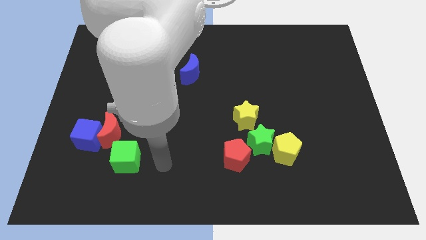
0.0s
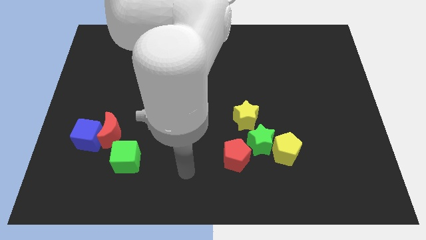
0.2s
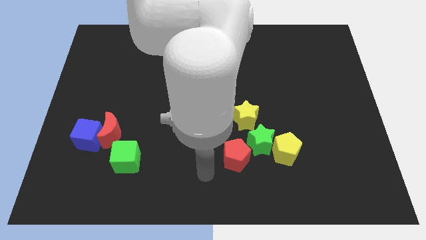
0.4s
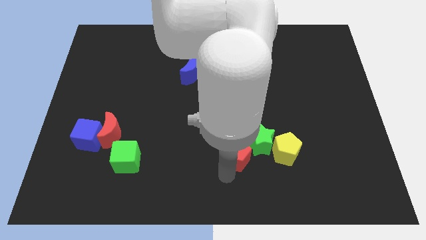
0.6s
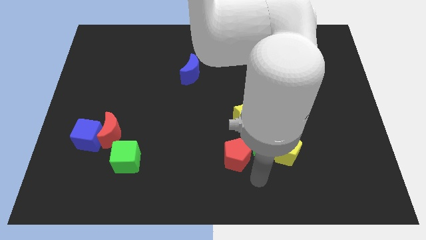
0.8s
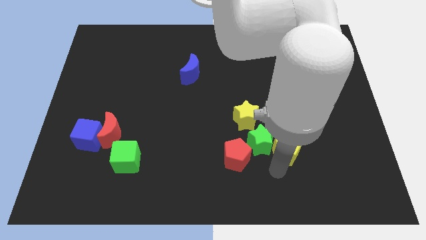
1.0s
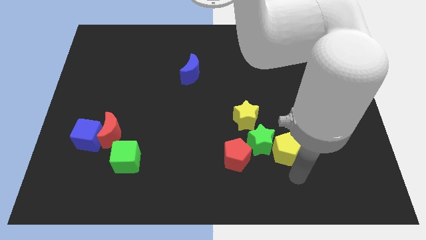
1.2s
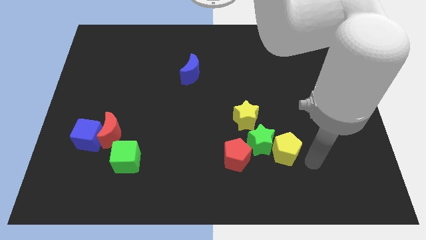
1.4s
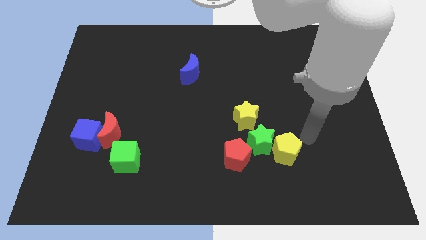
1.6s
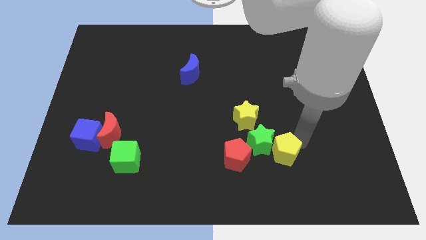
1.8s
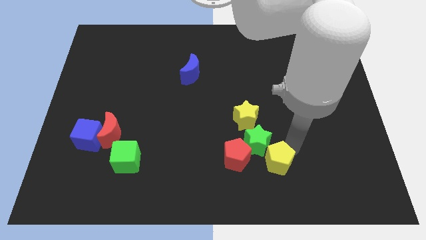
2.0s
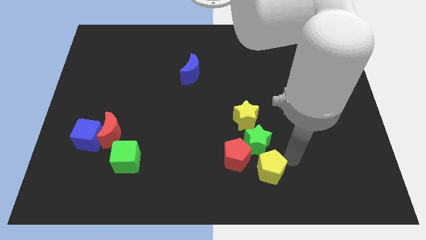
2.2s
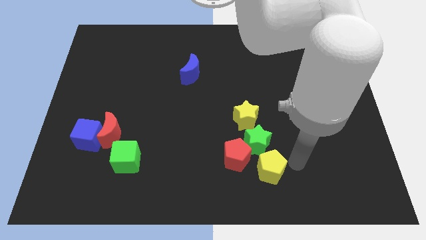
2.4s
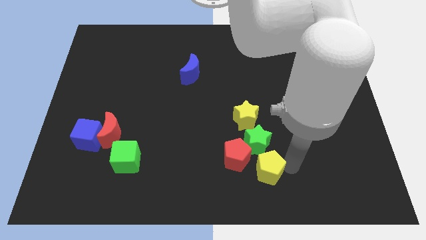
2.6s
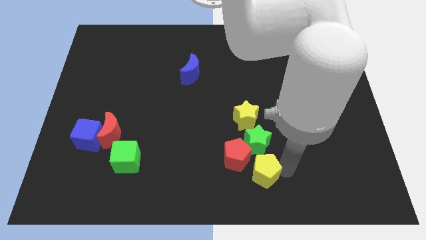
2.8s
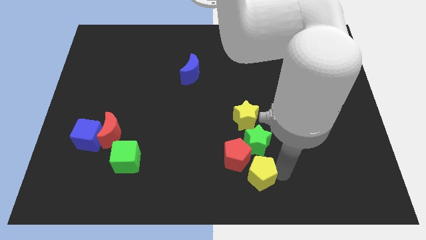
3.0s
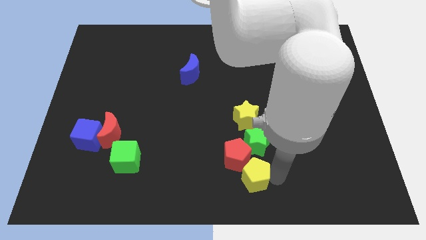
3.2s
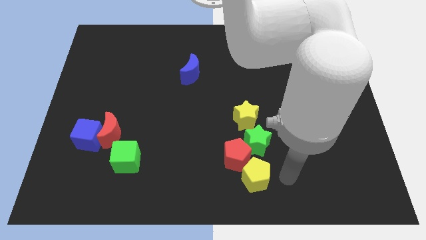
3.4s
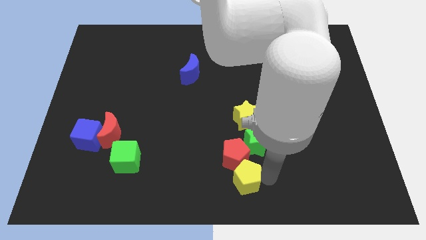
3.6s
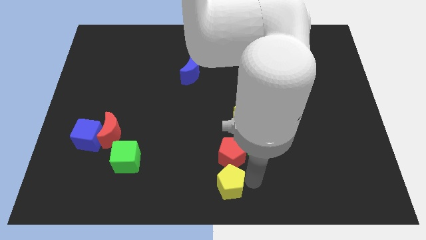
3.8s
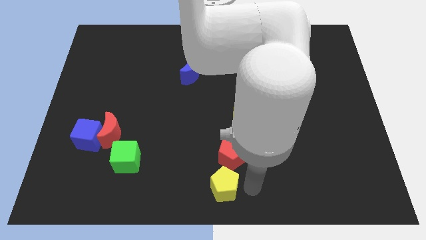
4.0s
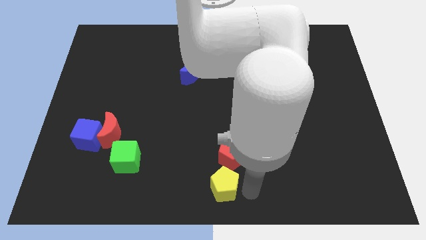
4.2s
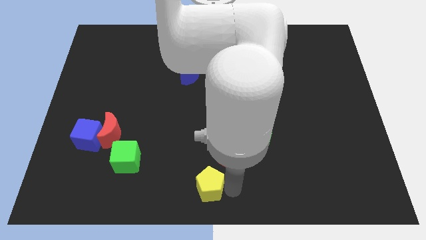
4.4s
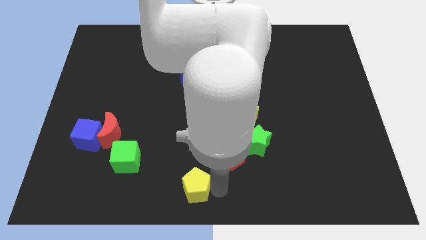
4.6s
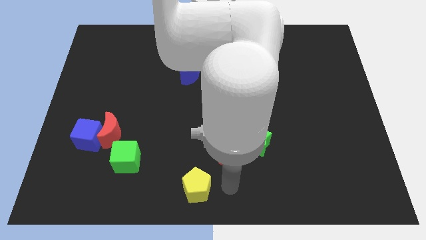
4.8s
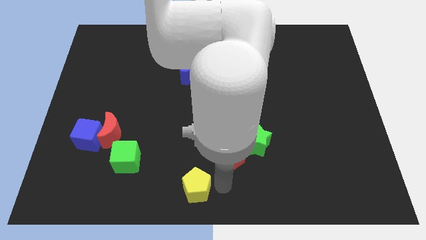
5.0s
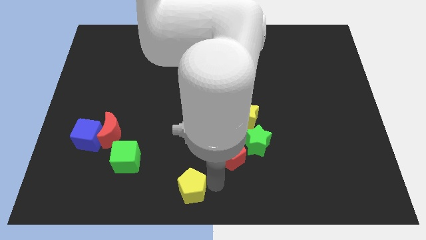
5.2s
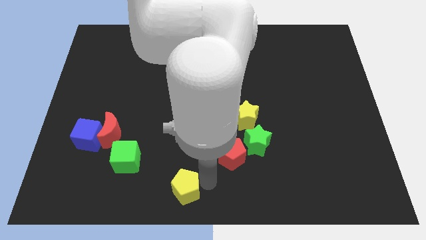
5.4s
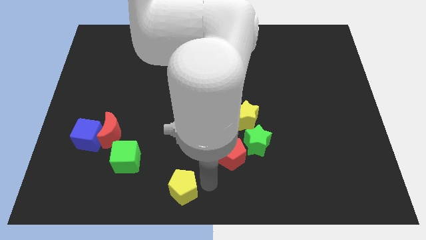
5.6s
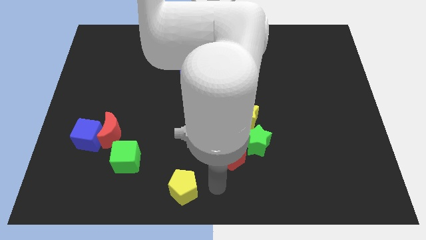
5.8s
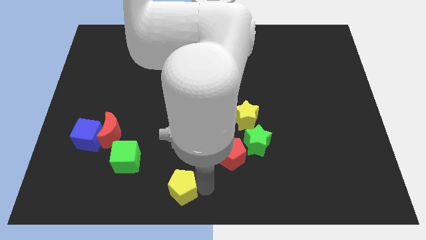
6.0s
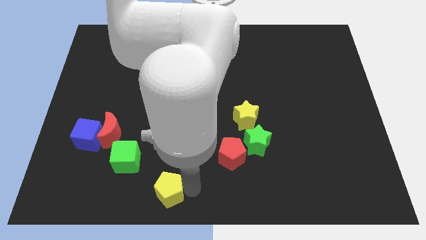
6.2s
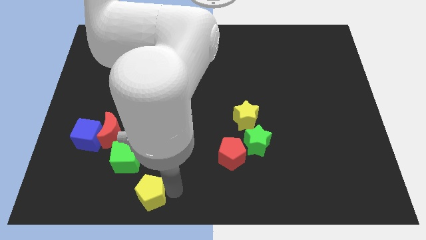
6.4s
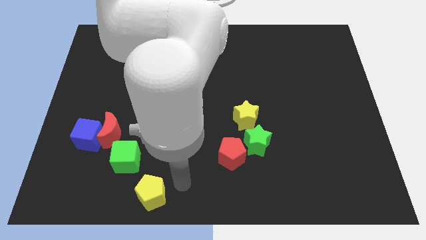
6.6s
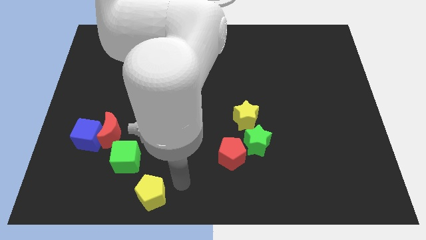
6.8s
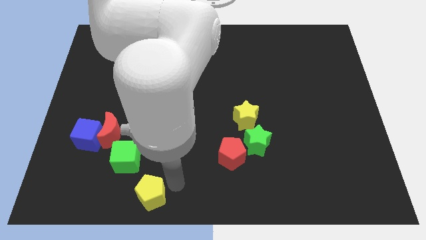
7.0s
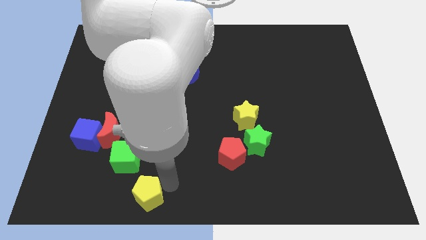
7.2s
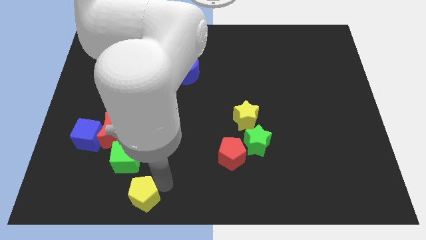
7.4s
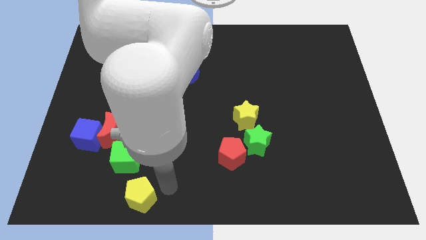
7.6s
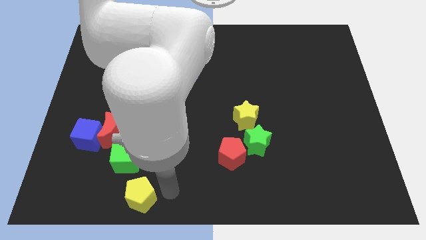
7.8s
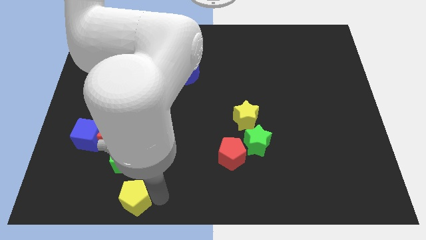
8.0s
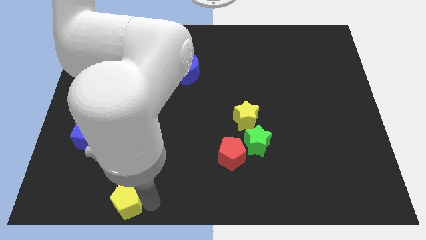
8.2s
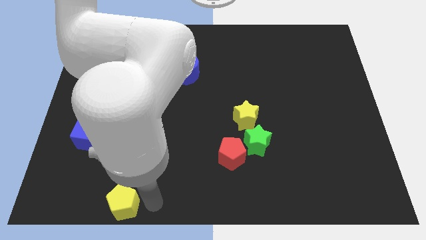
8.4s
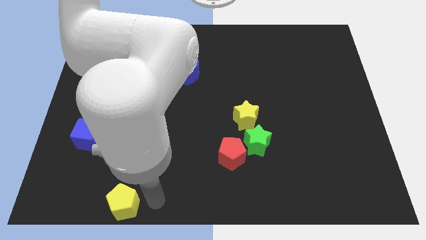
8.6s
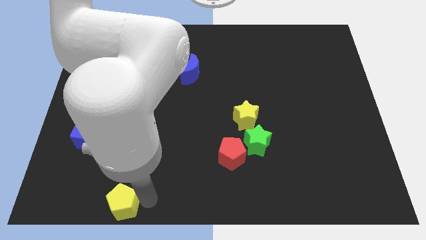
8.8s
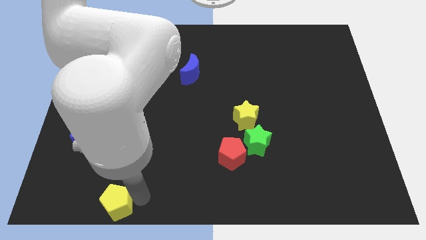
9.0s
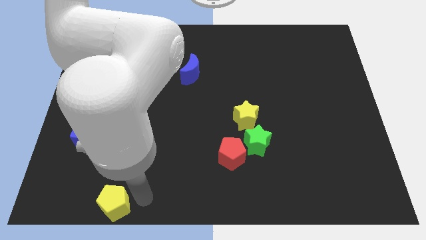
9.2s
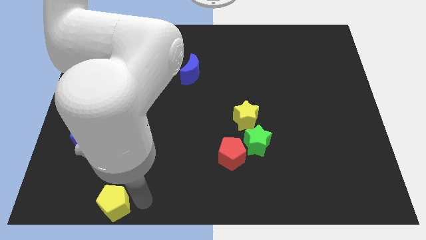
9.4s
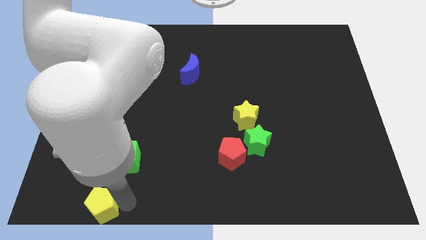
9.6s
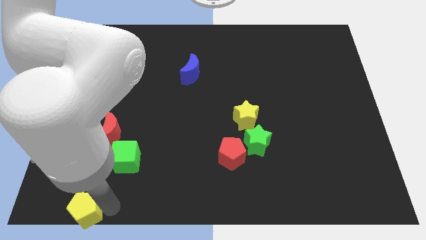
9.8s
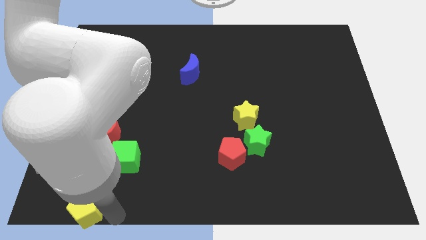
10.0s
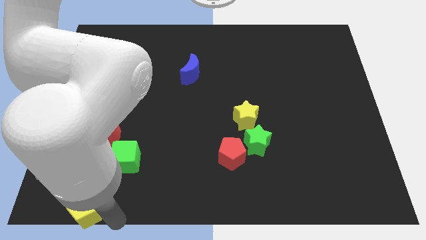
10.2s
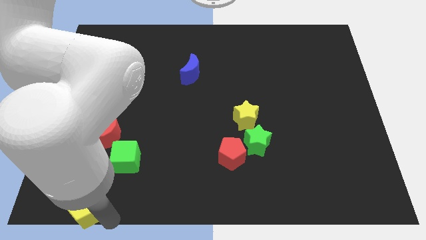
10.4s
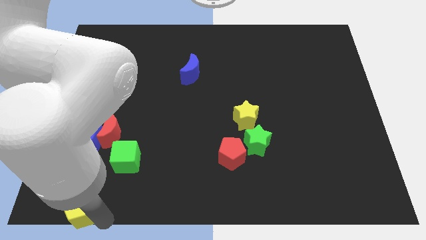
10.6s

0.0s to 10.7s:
put the yellow pentagon to the bottom left of the board

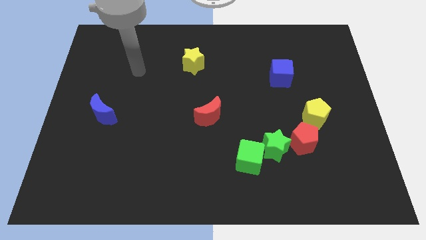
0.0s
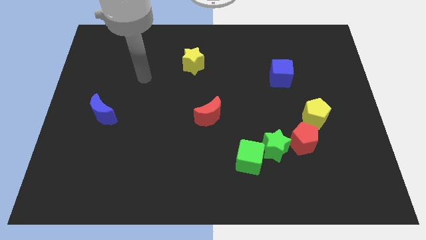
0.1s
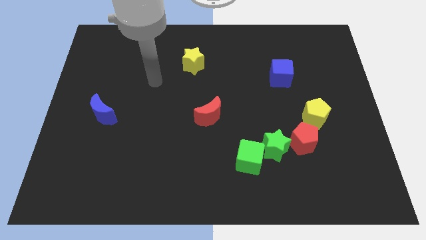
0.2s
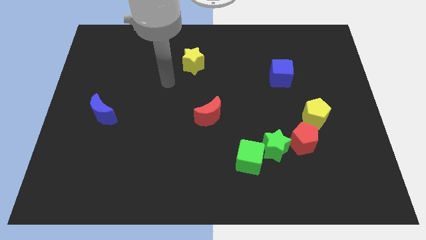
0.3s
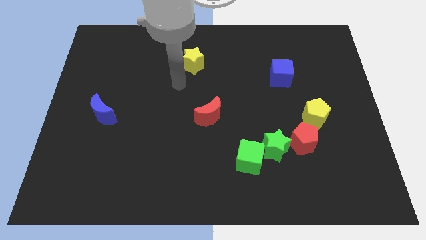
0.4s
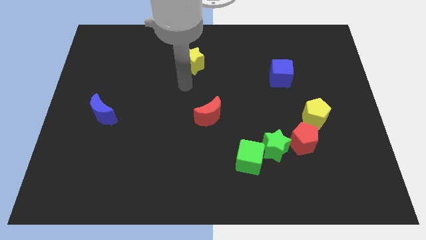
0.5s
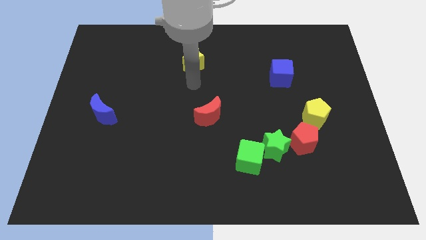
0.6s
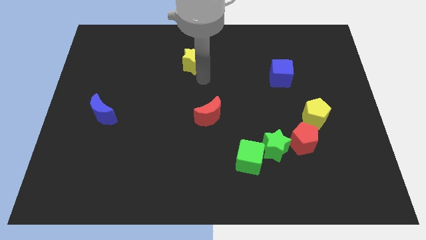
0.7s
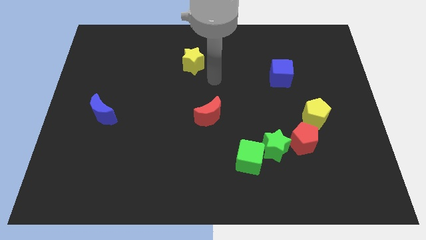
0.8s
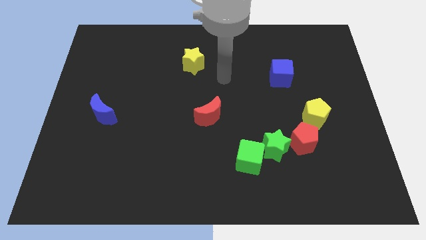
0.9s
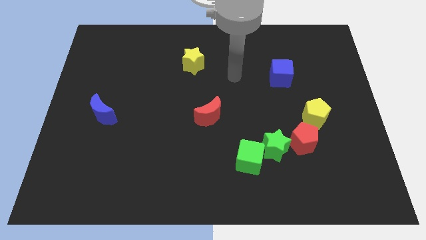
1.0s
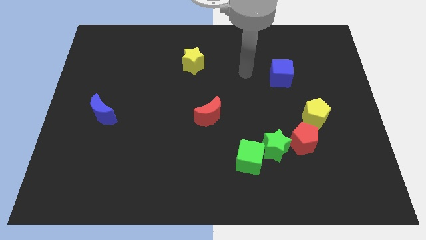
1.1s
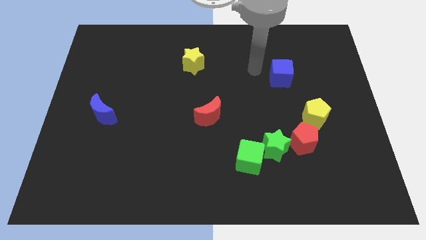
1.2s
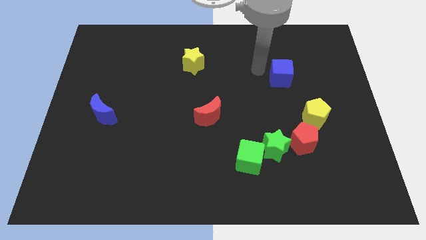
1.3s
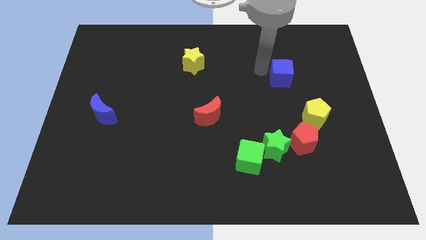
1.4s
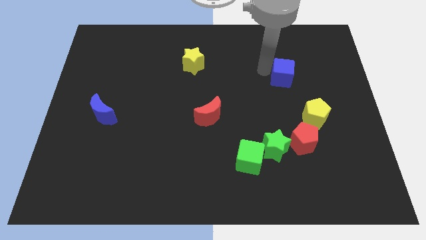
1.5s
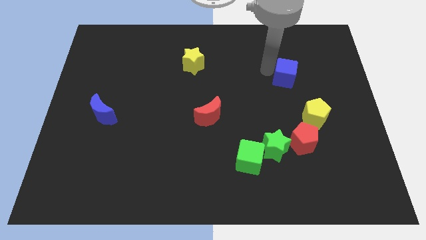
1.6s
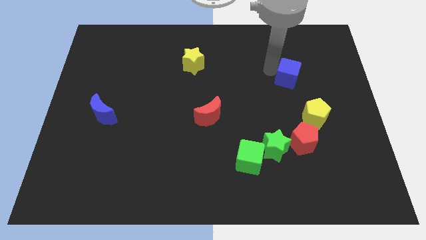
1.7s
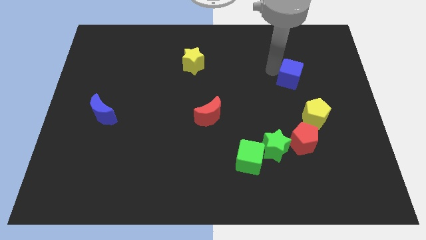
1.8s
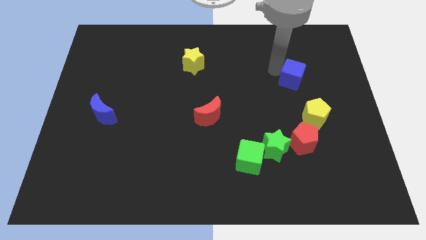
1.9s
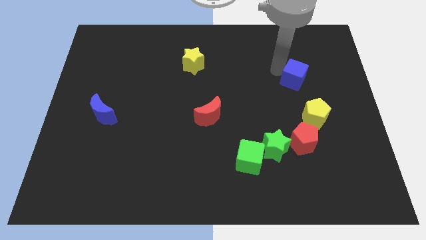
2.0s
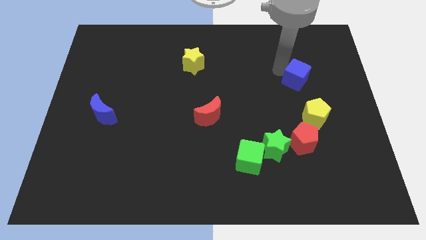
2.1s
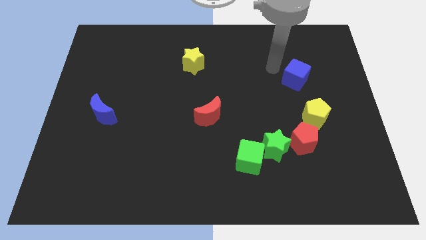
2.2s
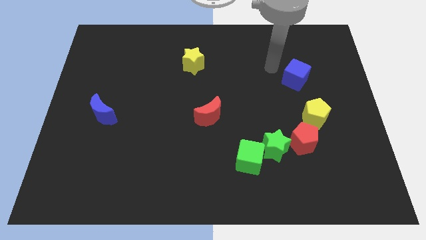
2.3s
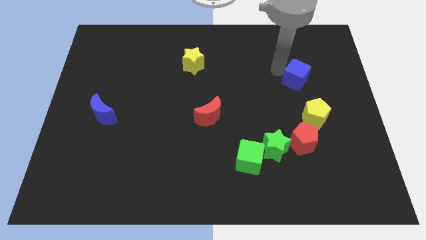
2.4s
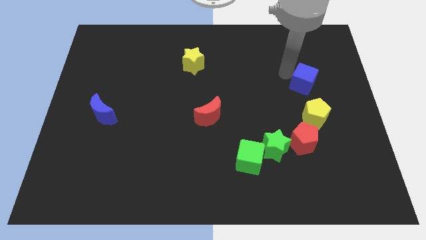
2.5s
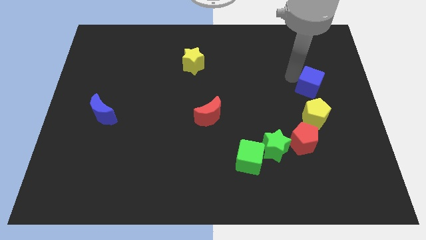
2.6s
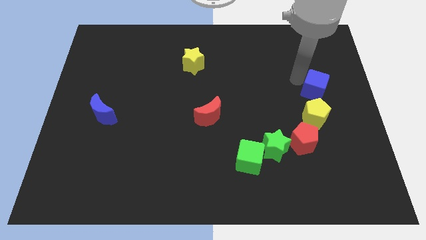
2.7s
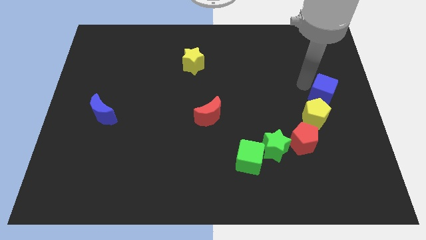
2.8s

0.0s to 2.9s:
push the blue cube to the right side
